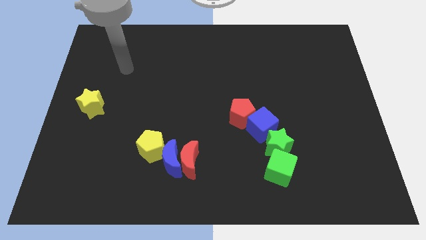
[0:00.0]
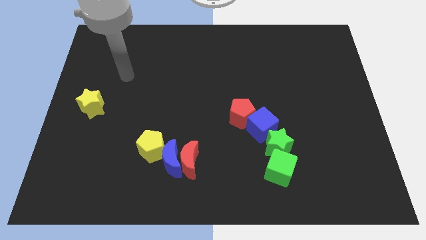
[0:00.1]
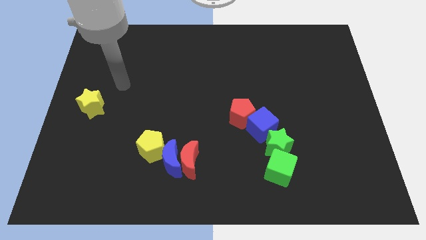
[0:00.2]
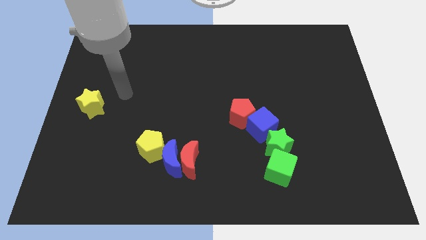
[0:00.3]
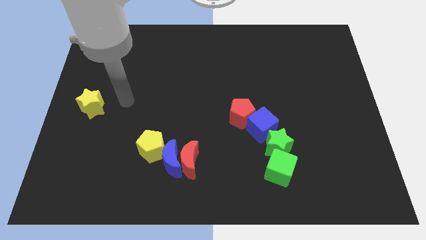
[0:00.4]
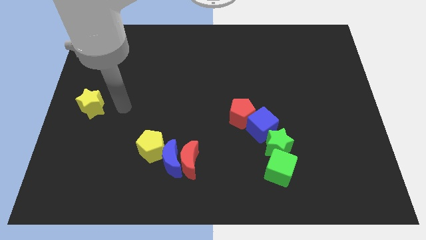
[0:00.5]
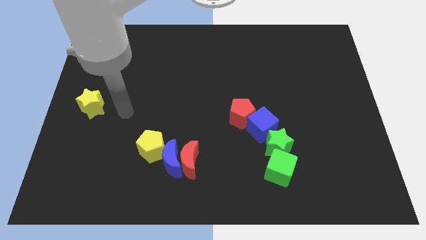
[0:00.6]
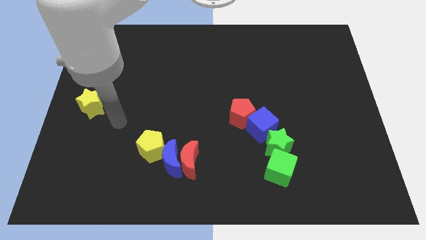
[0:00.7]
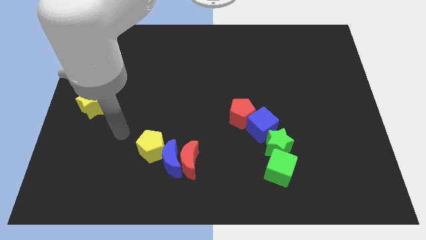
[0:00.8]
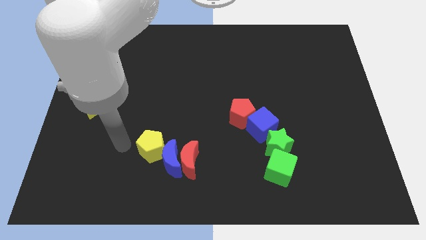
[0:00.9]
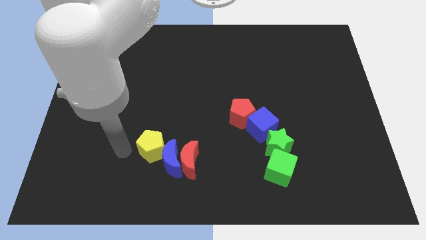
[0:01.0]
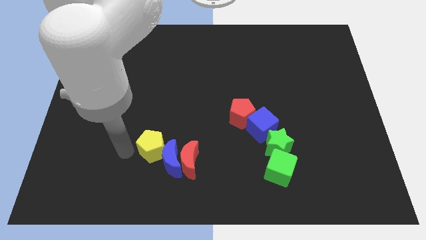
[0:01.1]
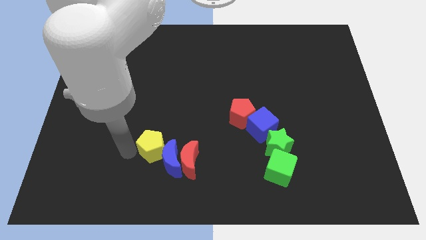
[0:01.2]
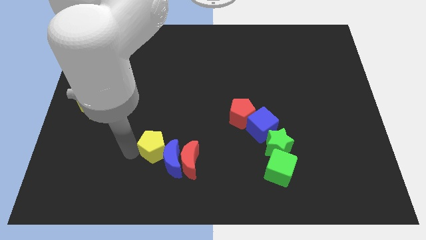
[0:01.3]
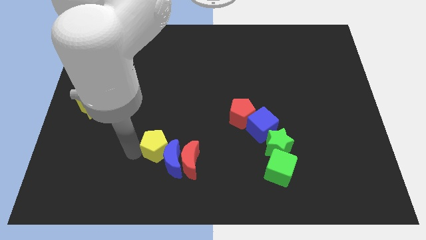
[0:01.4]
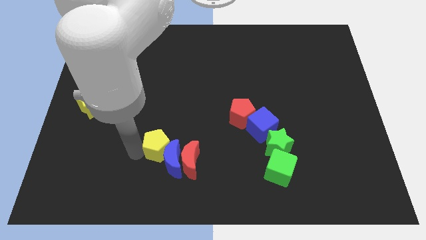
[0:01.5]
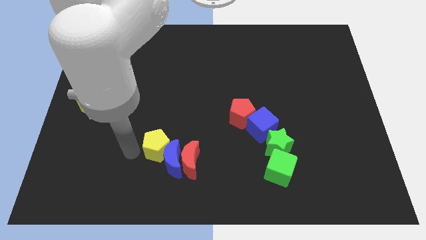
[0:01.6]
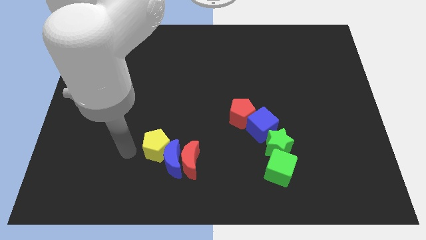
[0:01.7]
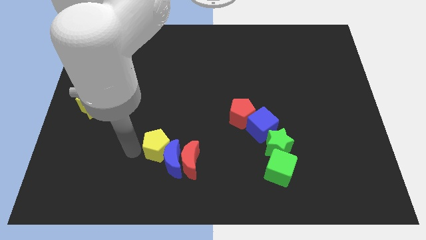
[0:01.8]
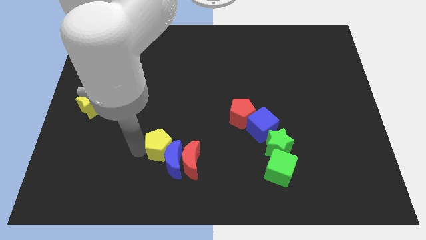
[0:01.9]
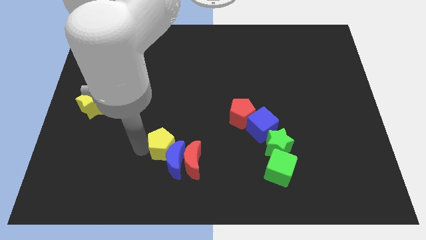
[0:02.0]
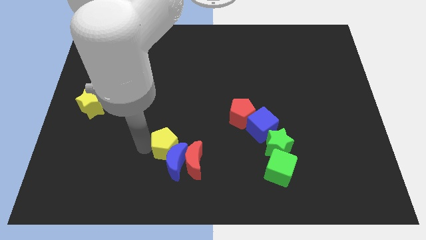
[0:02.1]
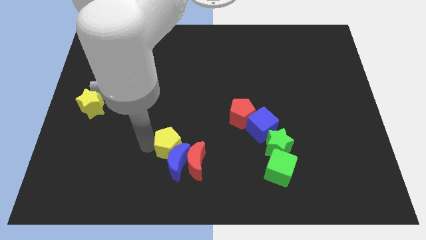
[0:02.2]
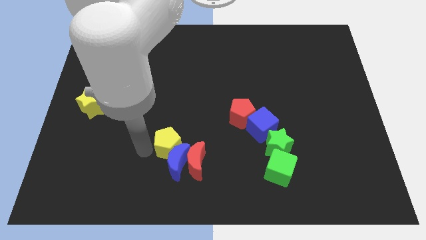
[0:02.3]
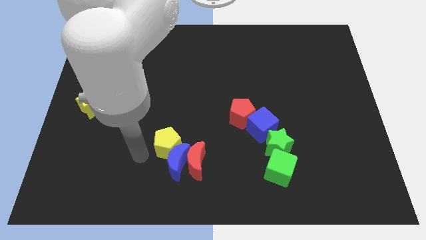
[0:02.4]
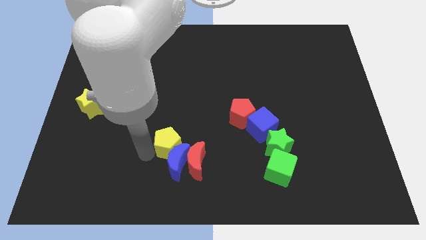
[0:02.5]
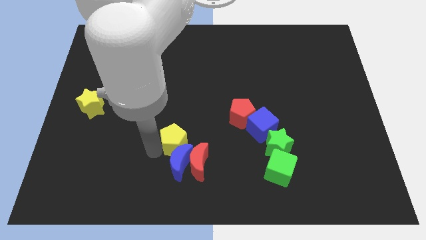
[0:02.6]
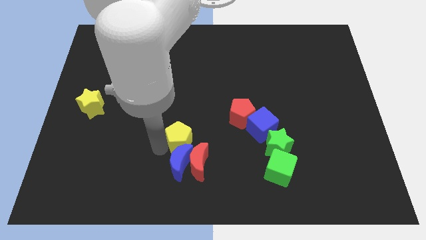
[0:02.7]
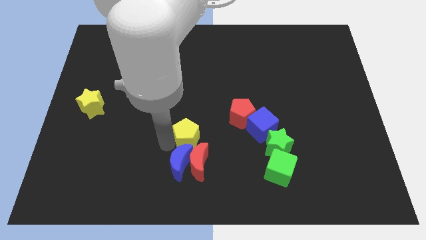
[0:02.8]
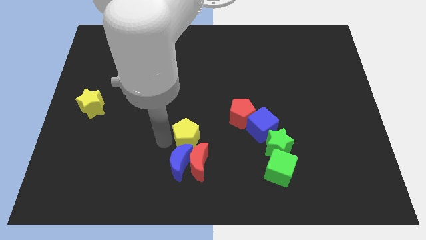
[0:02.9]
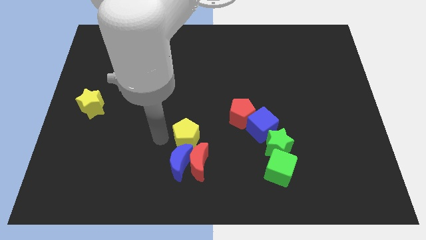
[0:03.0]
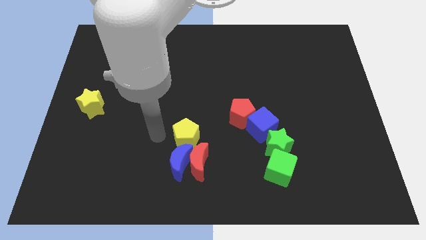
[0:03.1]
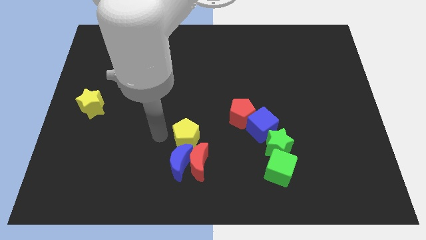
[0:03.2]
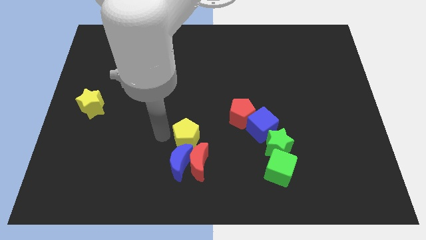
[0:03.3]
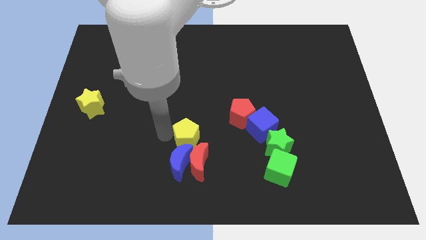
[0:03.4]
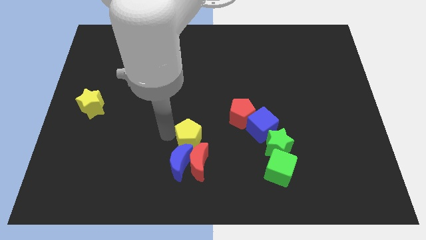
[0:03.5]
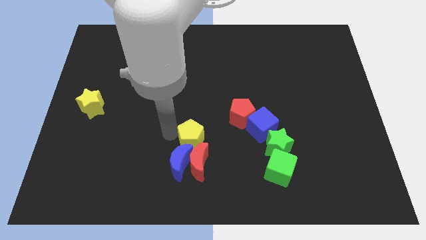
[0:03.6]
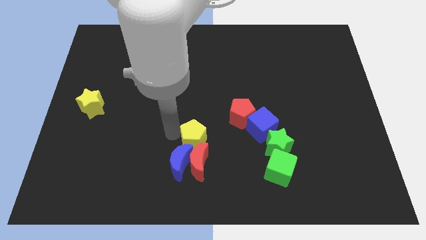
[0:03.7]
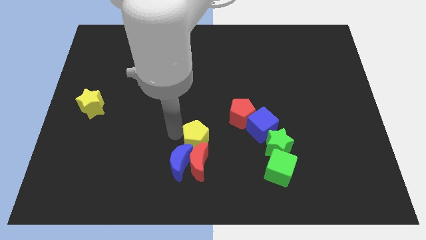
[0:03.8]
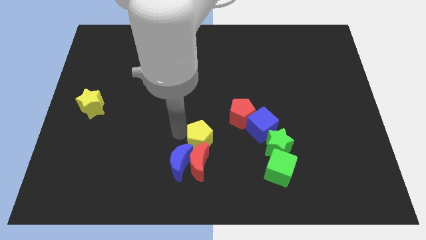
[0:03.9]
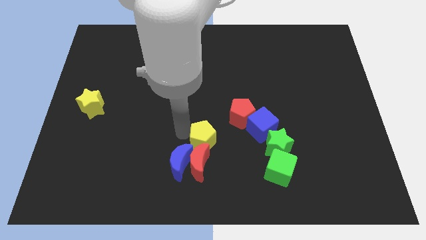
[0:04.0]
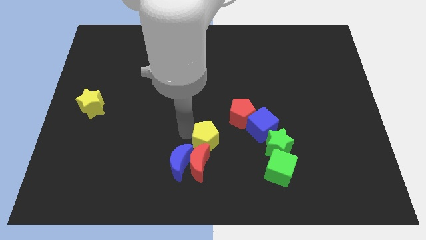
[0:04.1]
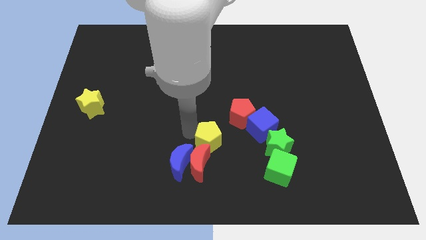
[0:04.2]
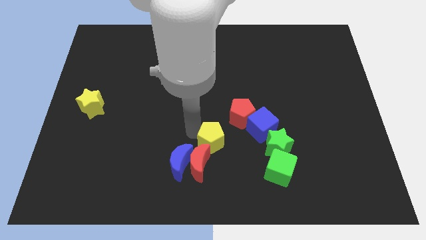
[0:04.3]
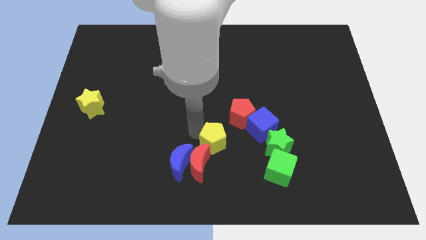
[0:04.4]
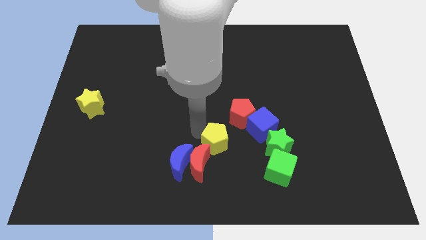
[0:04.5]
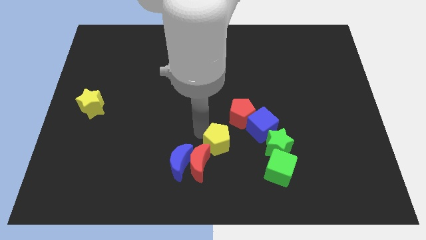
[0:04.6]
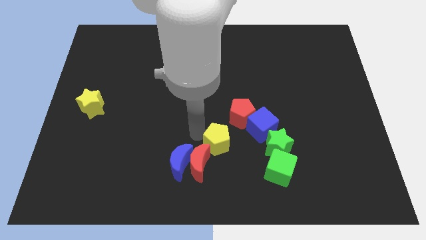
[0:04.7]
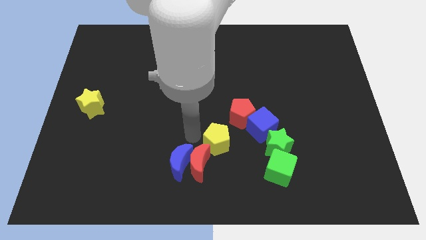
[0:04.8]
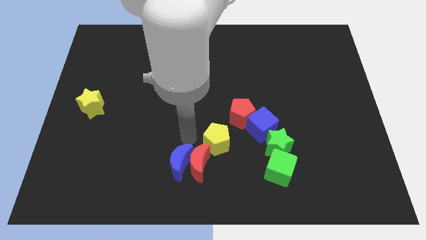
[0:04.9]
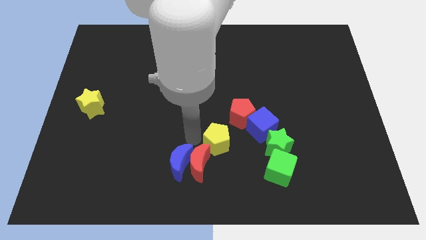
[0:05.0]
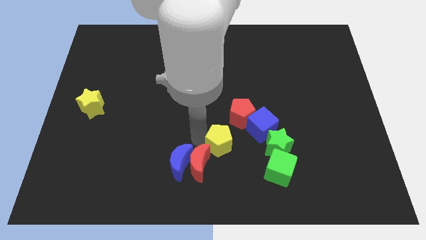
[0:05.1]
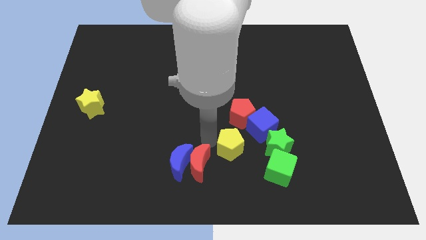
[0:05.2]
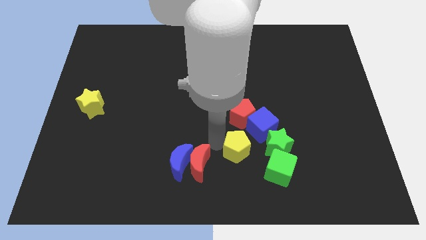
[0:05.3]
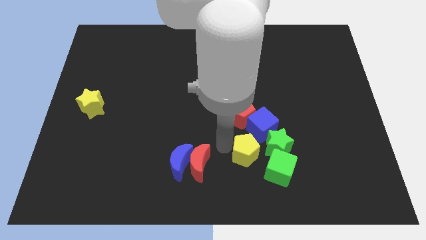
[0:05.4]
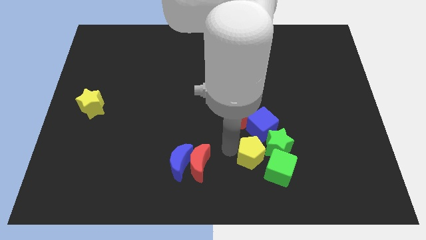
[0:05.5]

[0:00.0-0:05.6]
put the yellow pentagon next to the green star
